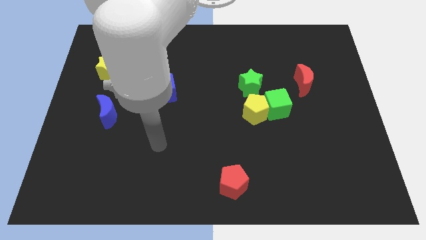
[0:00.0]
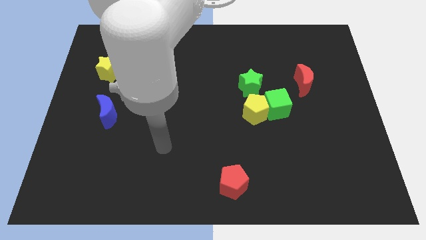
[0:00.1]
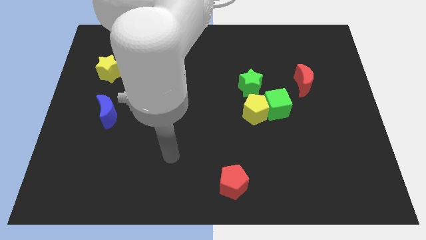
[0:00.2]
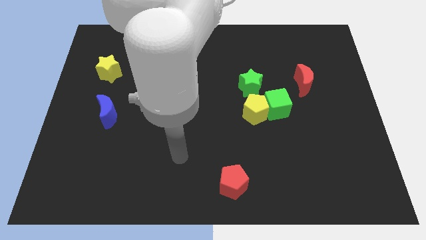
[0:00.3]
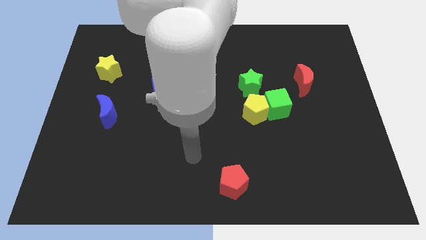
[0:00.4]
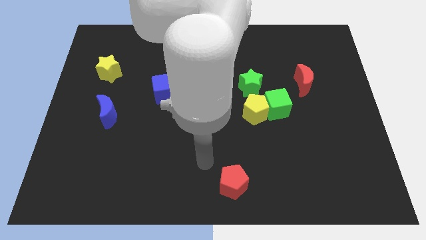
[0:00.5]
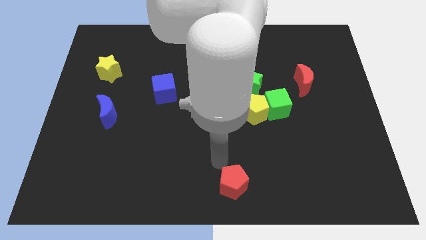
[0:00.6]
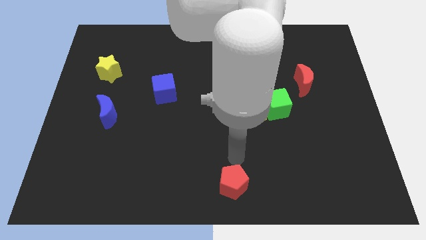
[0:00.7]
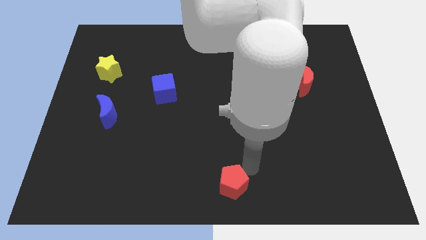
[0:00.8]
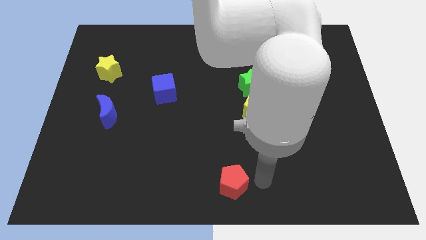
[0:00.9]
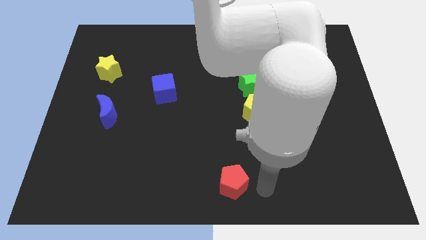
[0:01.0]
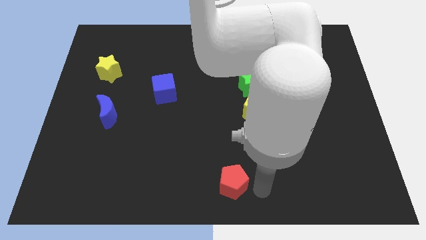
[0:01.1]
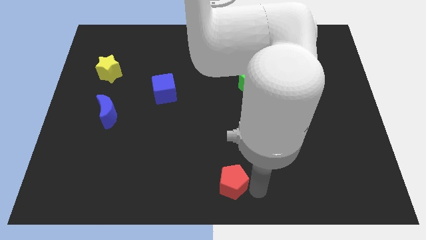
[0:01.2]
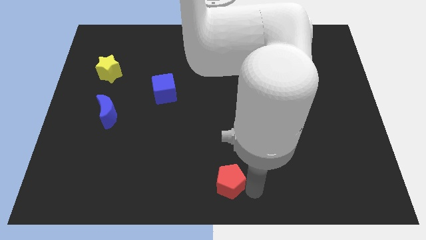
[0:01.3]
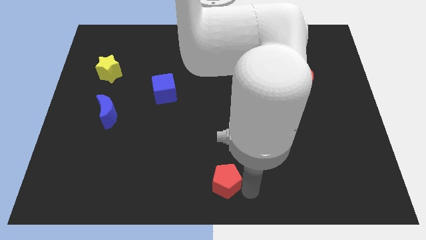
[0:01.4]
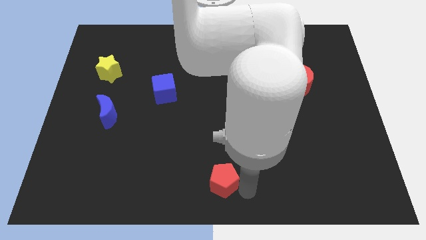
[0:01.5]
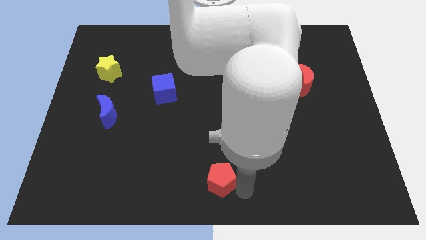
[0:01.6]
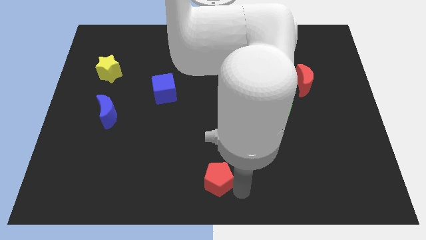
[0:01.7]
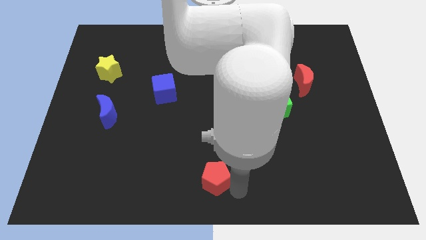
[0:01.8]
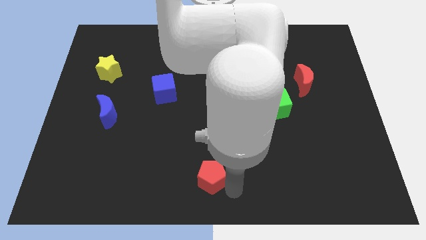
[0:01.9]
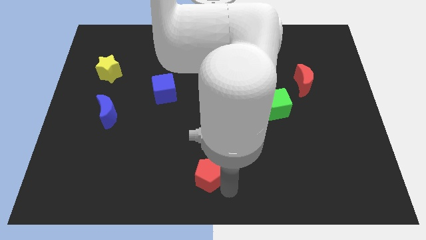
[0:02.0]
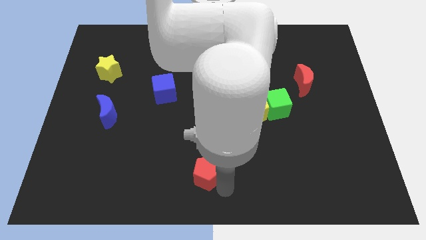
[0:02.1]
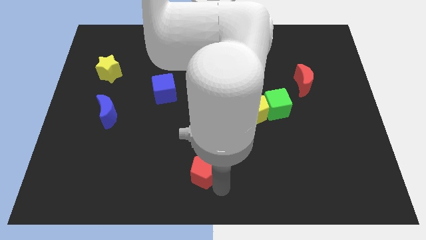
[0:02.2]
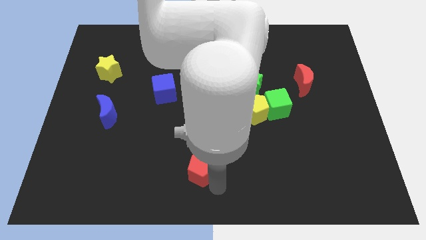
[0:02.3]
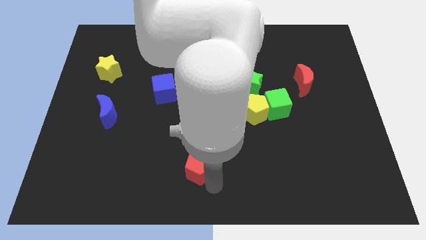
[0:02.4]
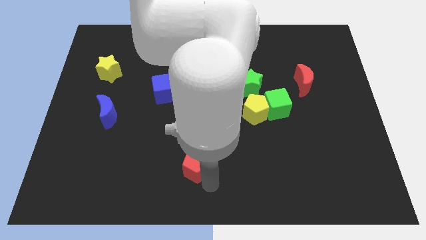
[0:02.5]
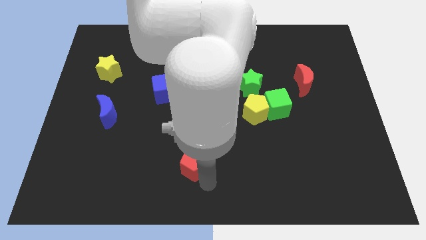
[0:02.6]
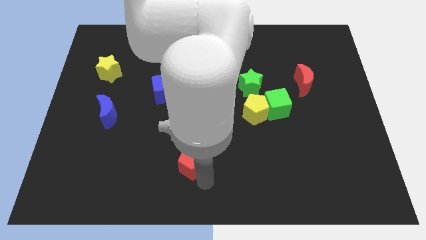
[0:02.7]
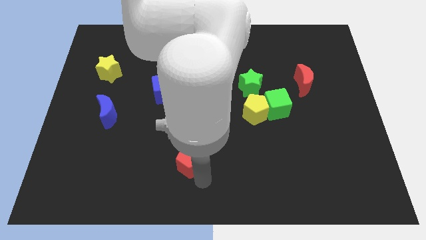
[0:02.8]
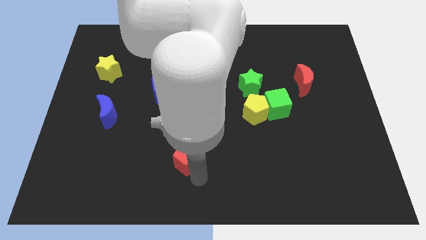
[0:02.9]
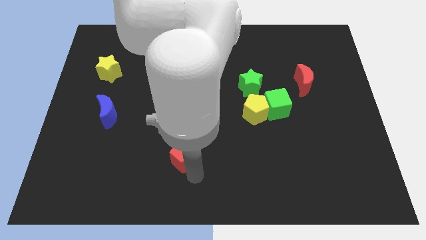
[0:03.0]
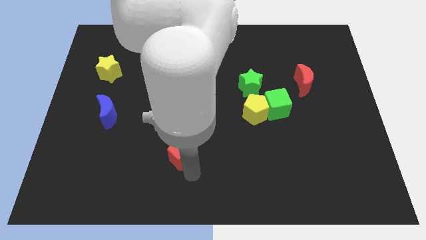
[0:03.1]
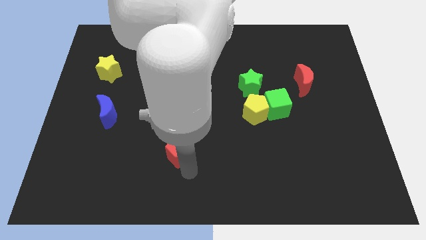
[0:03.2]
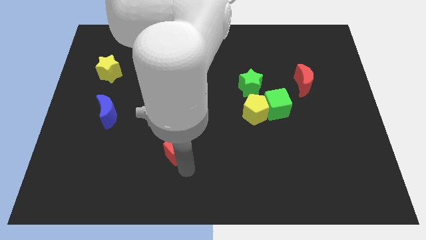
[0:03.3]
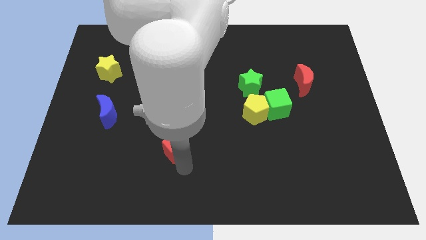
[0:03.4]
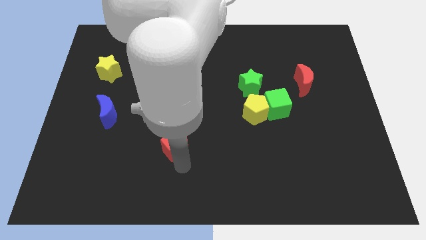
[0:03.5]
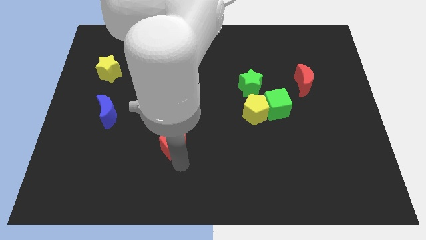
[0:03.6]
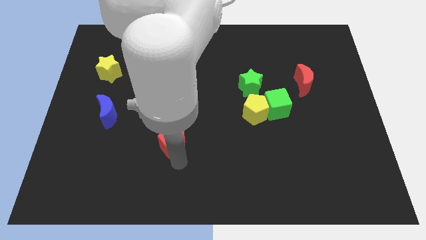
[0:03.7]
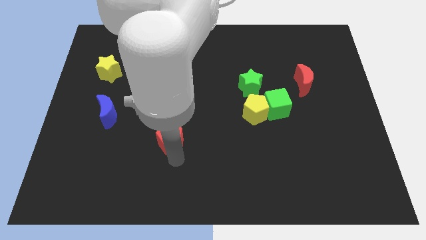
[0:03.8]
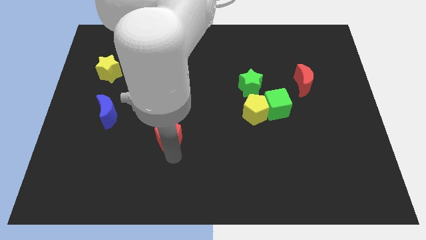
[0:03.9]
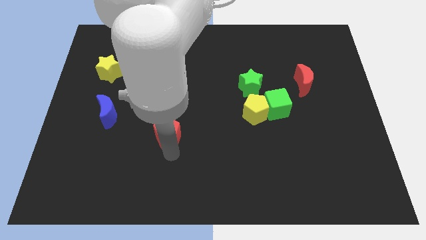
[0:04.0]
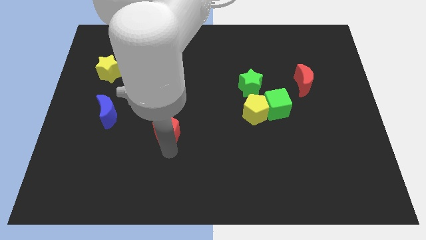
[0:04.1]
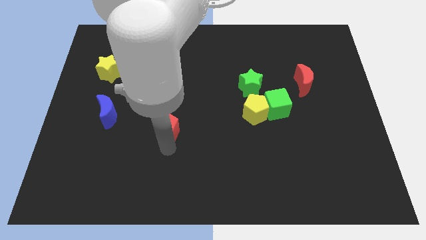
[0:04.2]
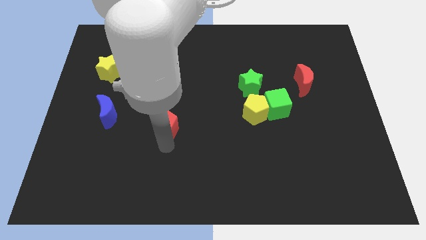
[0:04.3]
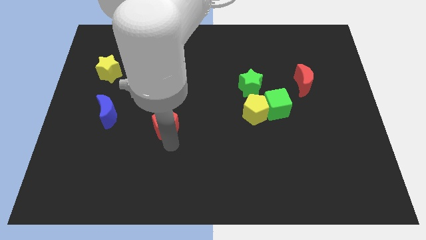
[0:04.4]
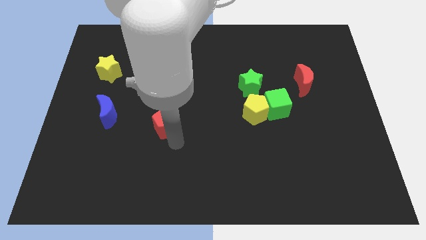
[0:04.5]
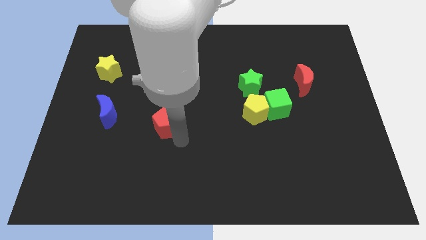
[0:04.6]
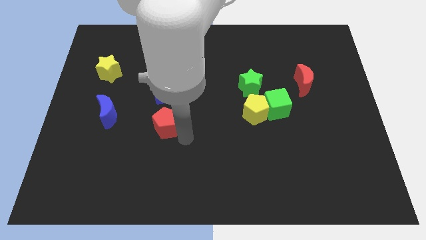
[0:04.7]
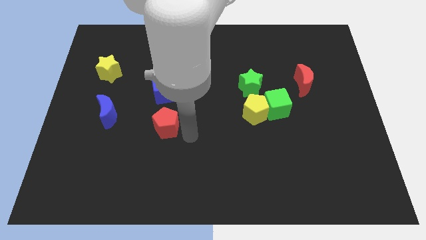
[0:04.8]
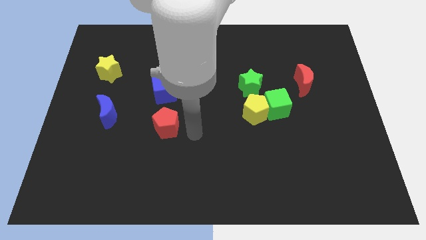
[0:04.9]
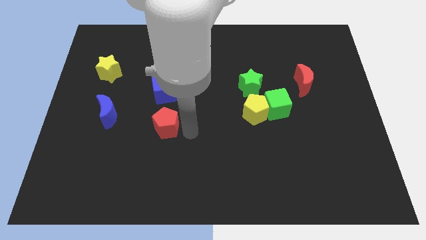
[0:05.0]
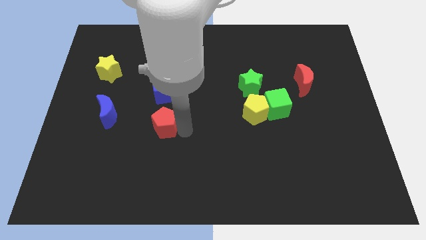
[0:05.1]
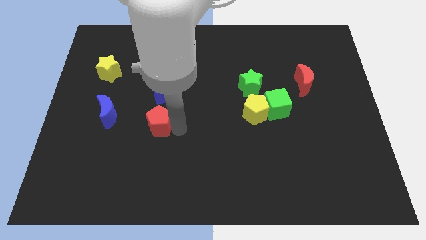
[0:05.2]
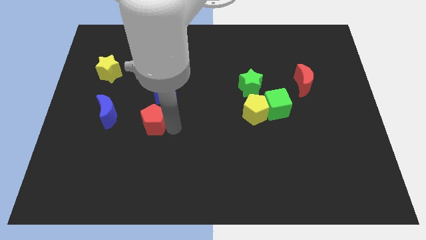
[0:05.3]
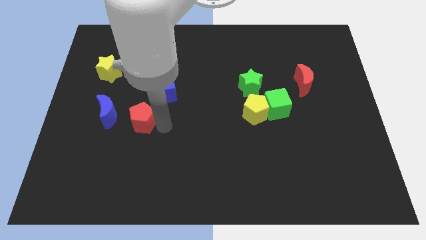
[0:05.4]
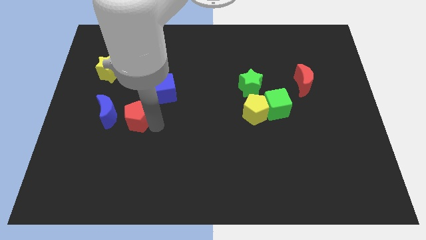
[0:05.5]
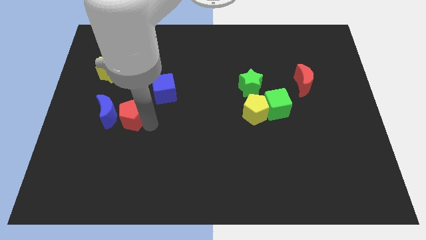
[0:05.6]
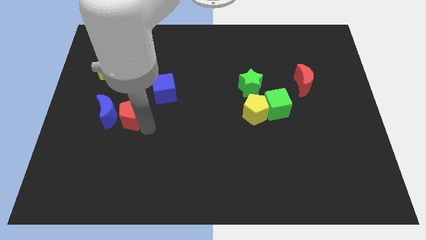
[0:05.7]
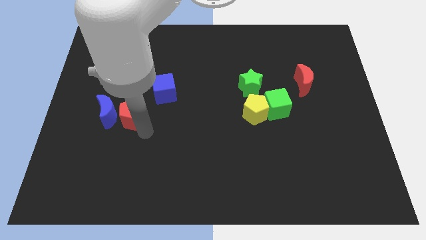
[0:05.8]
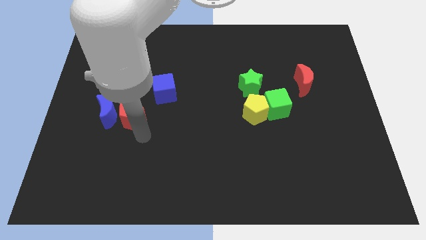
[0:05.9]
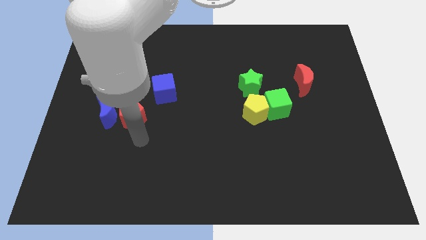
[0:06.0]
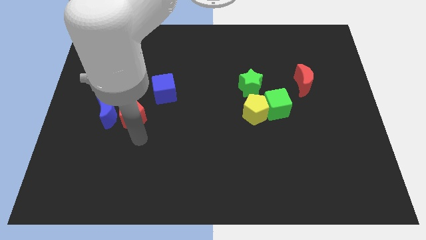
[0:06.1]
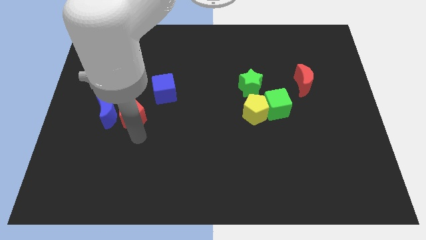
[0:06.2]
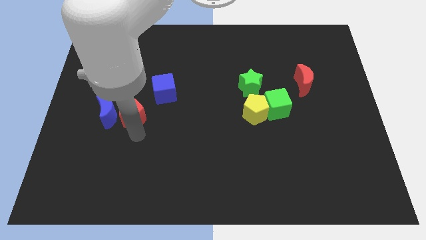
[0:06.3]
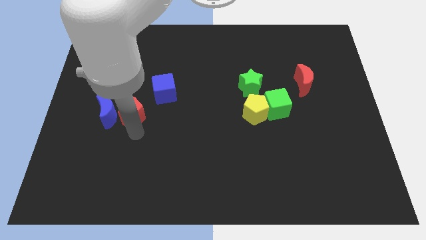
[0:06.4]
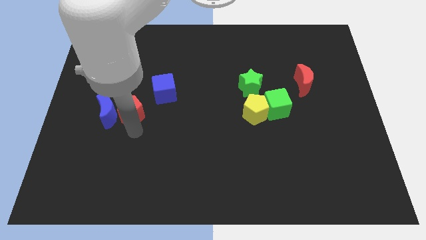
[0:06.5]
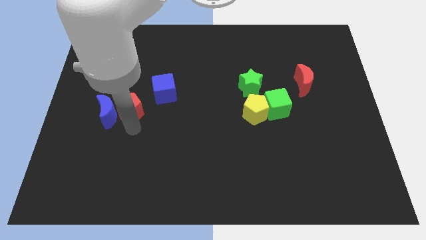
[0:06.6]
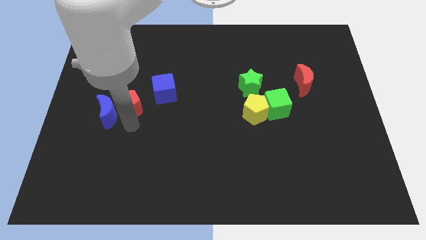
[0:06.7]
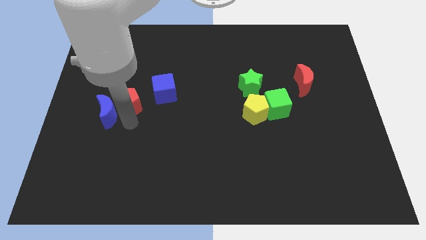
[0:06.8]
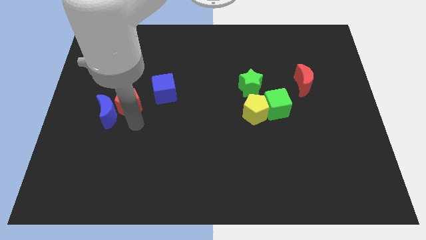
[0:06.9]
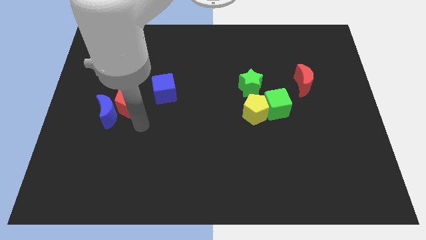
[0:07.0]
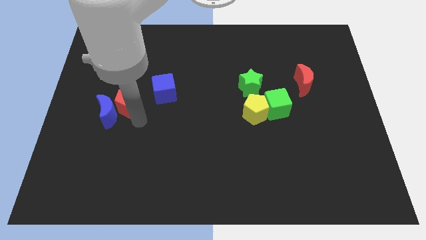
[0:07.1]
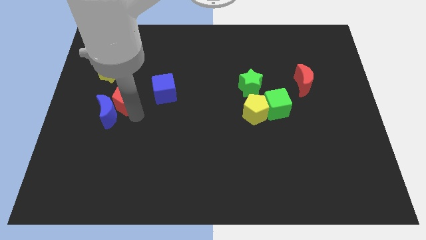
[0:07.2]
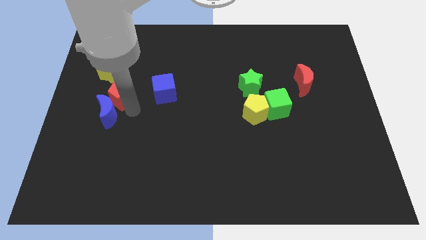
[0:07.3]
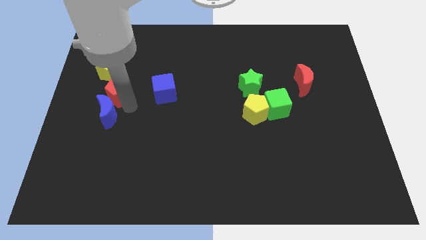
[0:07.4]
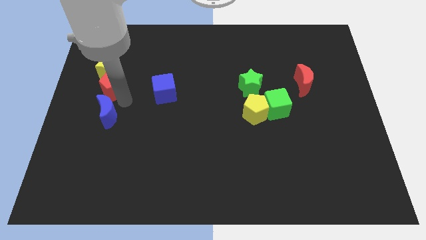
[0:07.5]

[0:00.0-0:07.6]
move the red pentagon to the yellow star

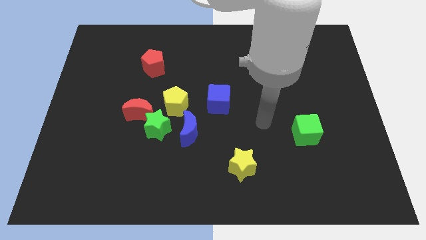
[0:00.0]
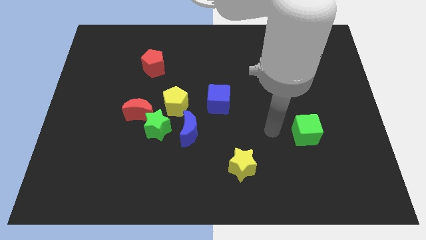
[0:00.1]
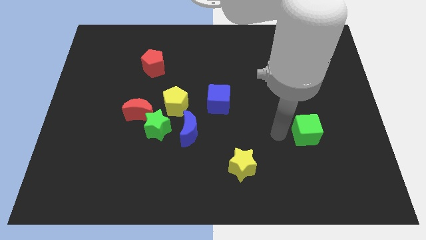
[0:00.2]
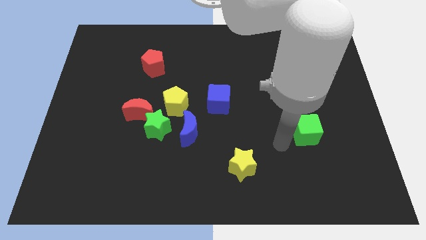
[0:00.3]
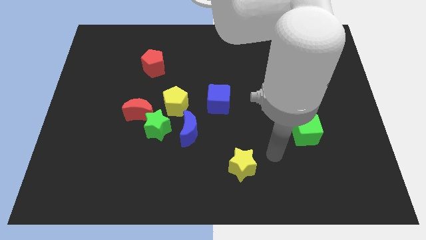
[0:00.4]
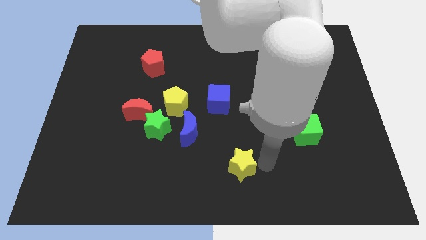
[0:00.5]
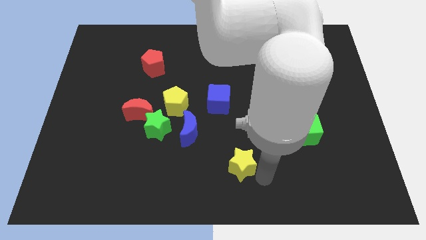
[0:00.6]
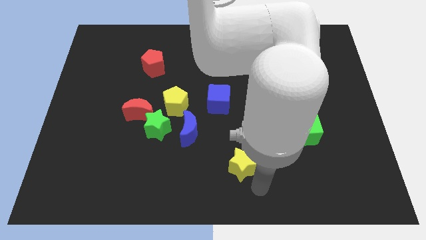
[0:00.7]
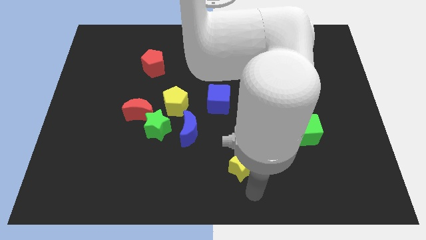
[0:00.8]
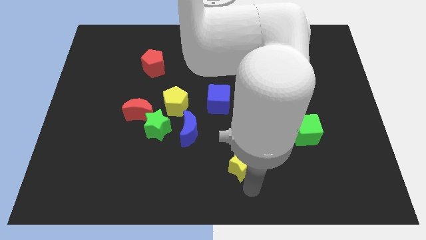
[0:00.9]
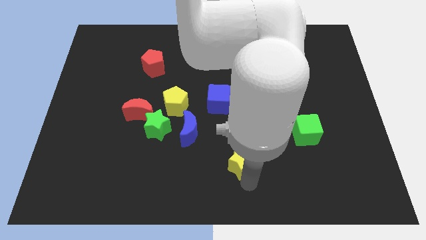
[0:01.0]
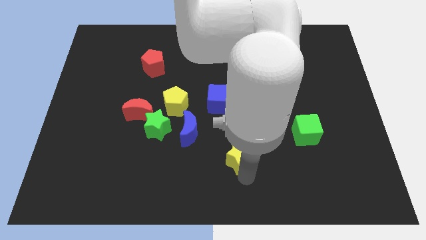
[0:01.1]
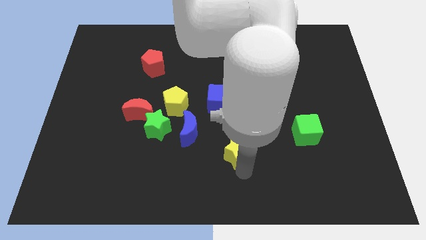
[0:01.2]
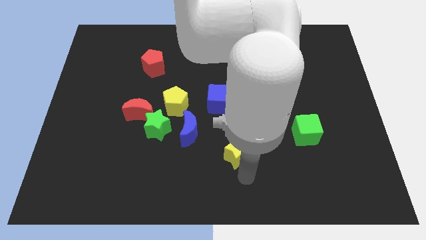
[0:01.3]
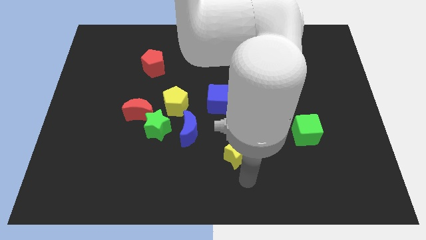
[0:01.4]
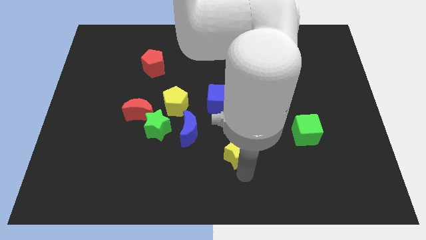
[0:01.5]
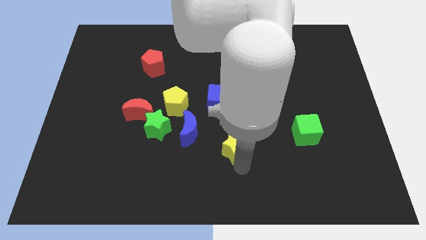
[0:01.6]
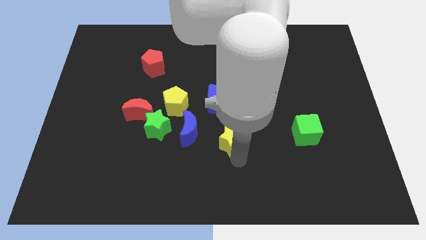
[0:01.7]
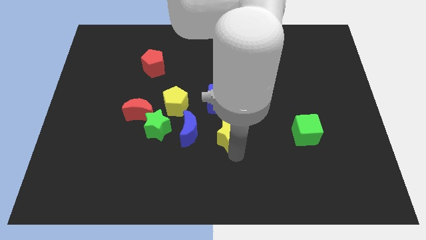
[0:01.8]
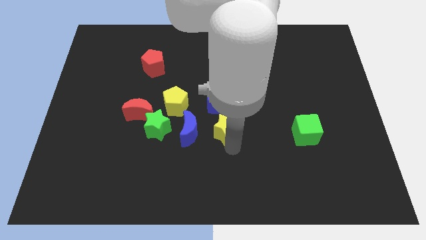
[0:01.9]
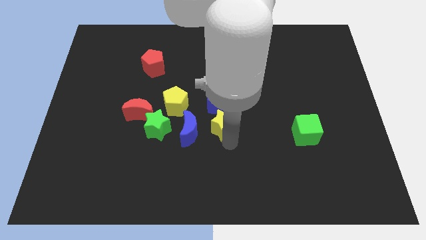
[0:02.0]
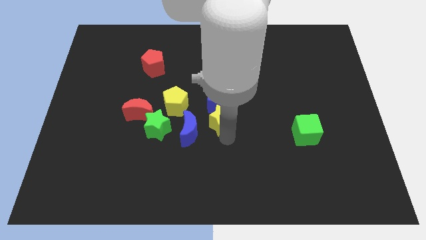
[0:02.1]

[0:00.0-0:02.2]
put the yellow star close to the blue cube
